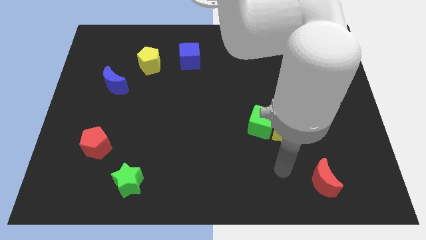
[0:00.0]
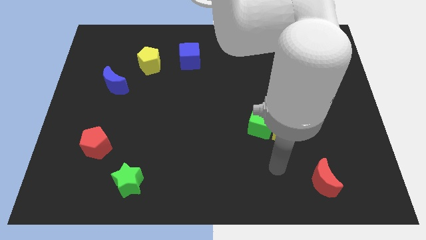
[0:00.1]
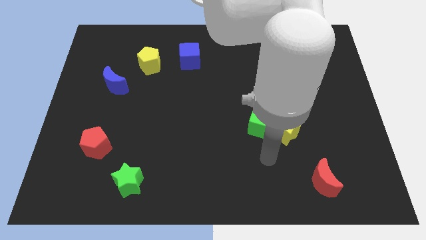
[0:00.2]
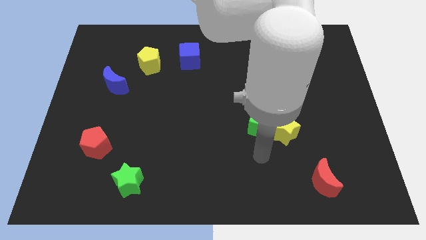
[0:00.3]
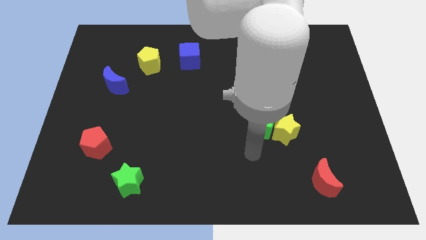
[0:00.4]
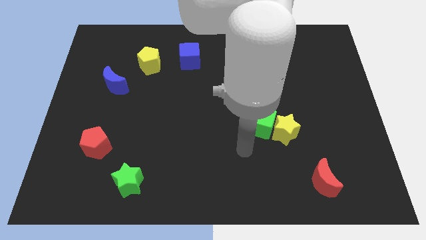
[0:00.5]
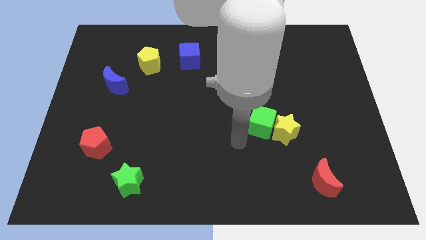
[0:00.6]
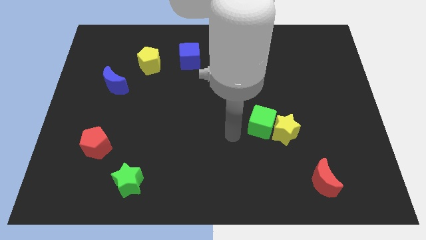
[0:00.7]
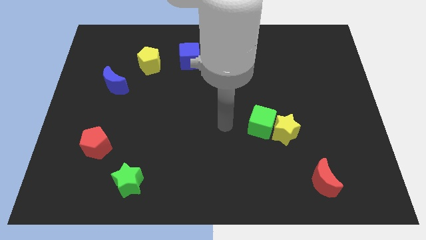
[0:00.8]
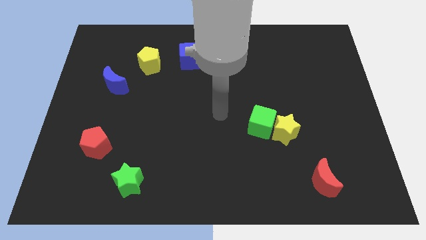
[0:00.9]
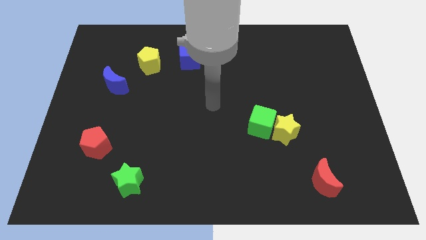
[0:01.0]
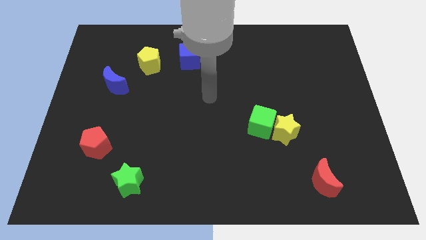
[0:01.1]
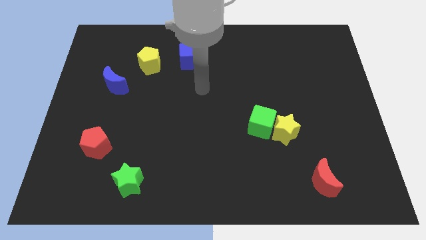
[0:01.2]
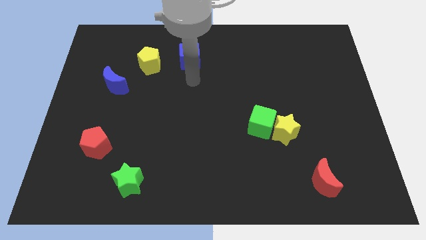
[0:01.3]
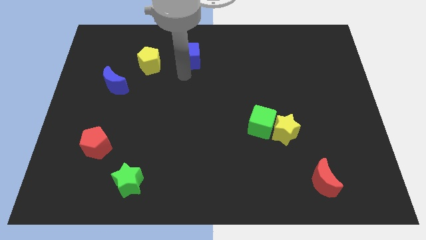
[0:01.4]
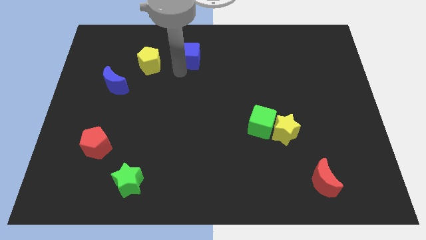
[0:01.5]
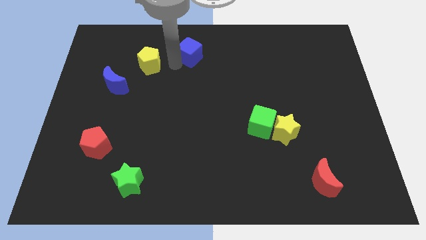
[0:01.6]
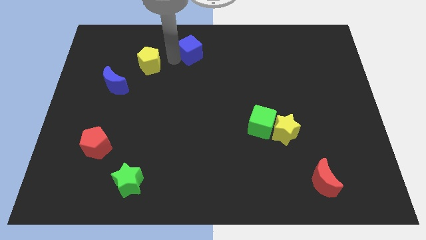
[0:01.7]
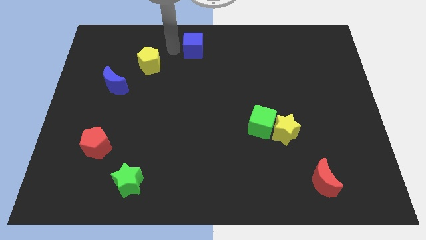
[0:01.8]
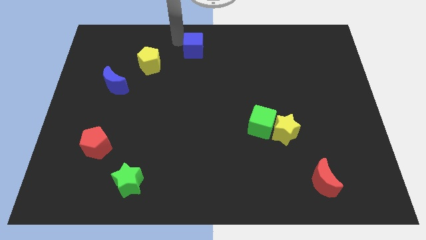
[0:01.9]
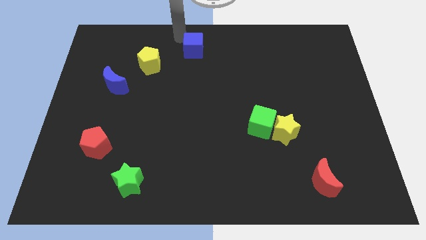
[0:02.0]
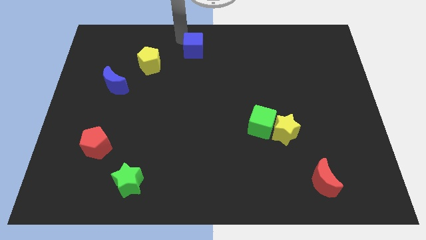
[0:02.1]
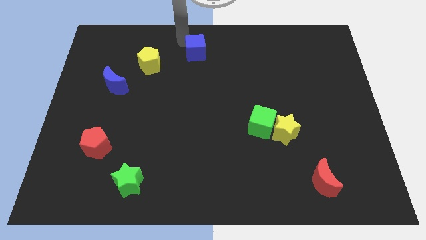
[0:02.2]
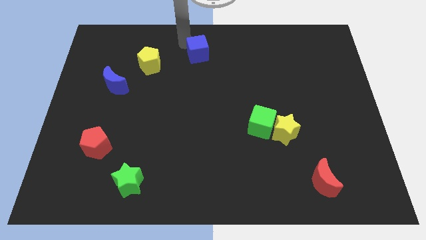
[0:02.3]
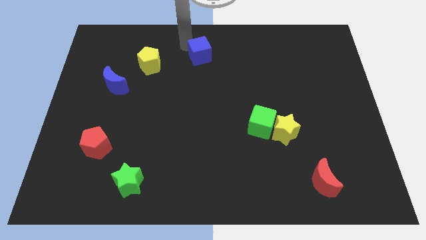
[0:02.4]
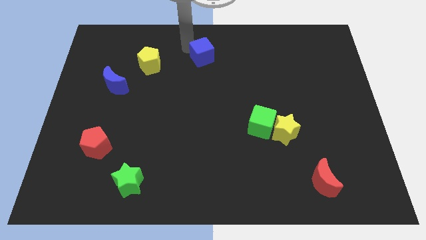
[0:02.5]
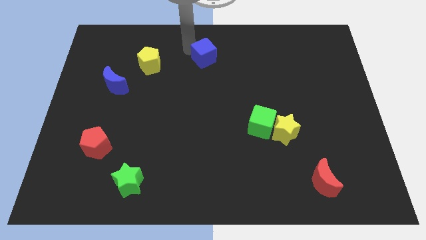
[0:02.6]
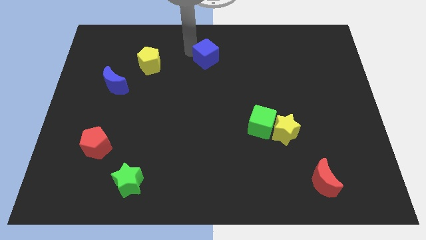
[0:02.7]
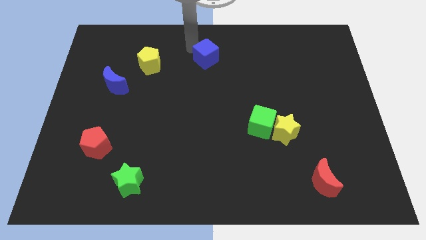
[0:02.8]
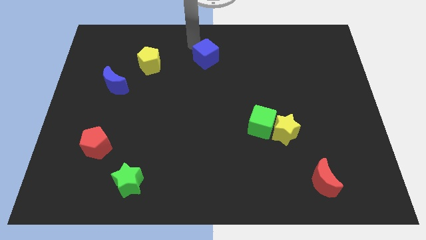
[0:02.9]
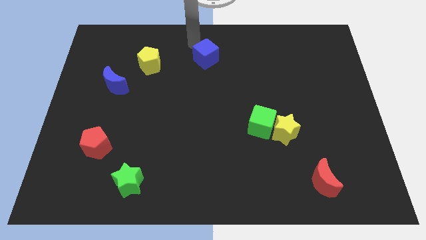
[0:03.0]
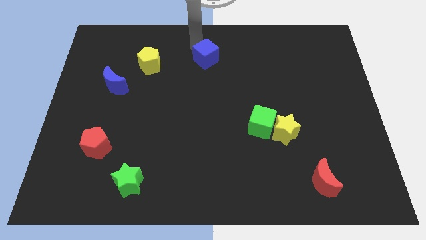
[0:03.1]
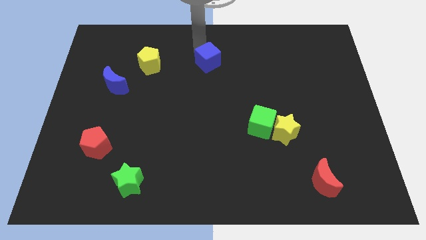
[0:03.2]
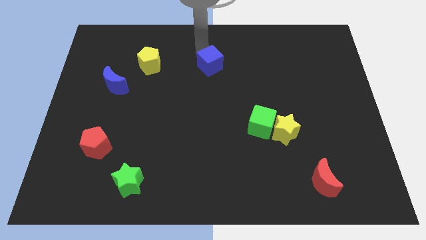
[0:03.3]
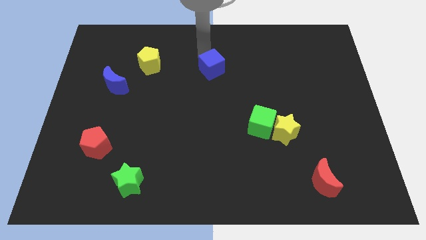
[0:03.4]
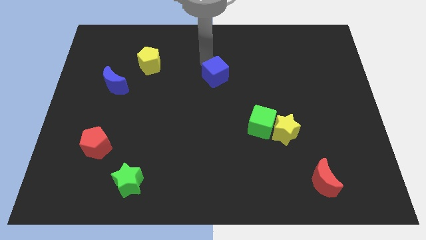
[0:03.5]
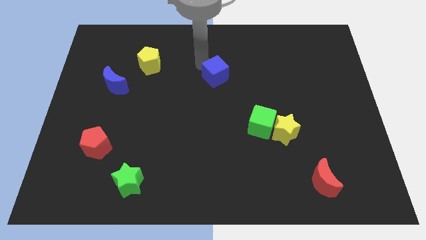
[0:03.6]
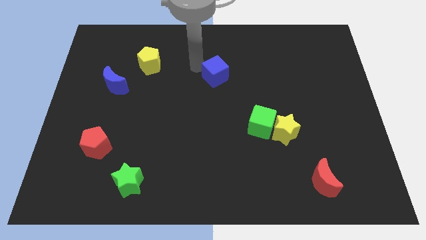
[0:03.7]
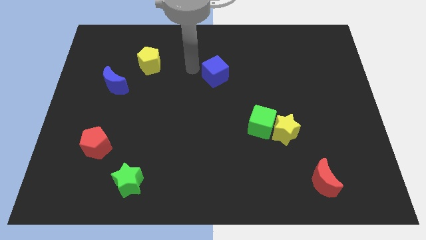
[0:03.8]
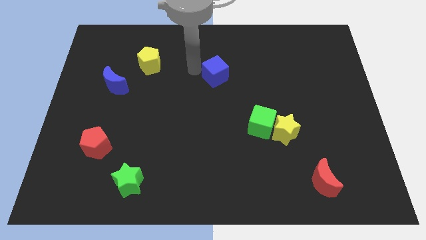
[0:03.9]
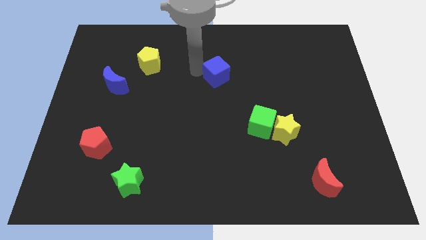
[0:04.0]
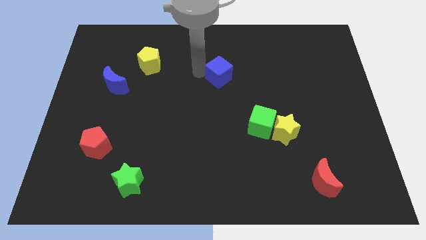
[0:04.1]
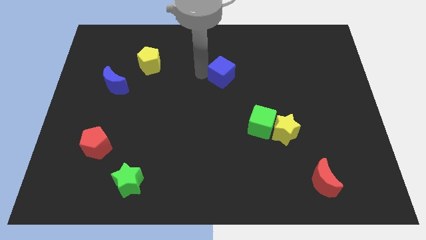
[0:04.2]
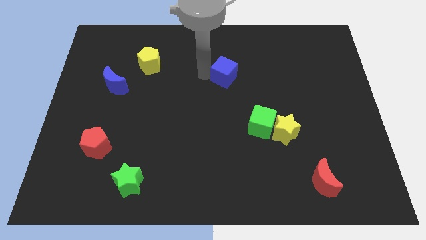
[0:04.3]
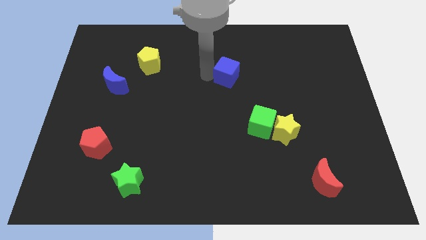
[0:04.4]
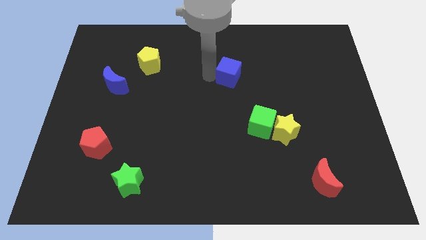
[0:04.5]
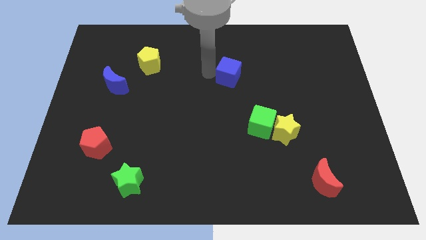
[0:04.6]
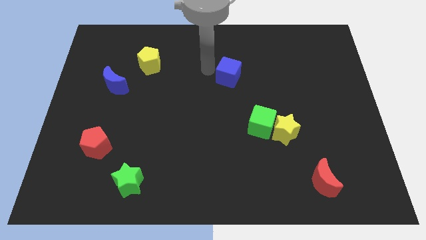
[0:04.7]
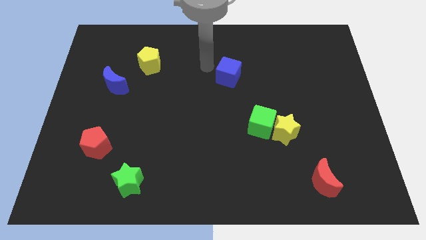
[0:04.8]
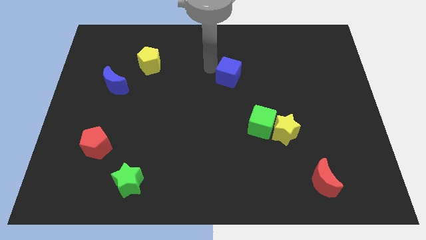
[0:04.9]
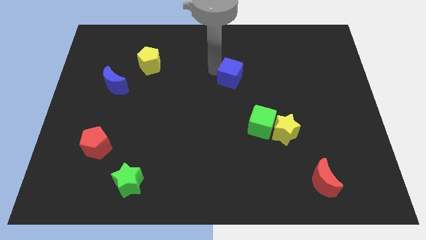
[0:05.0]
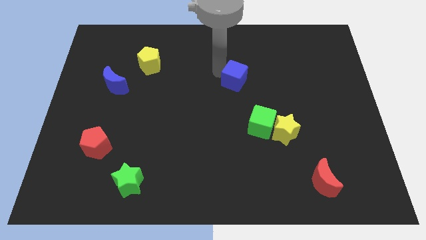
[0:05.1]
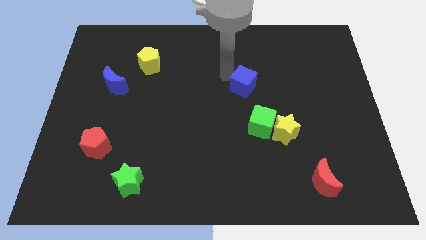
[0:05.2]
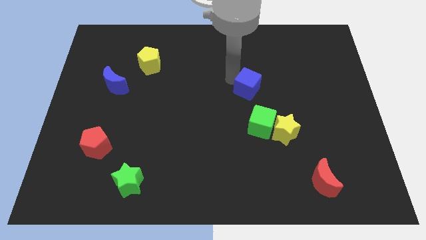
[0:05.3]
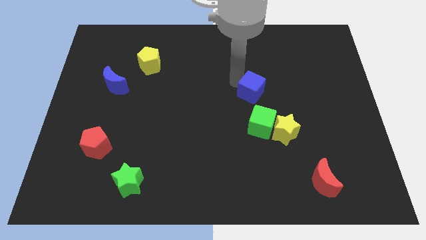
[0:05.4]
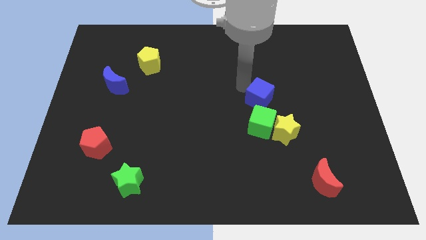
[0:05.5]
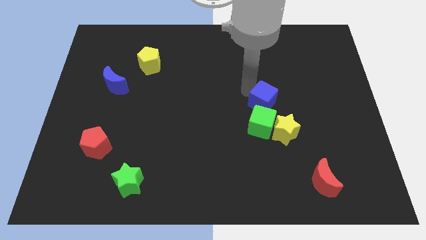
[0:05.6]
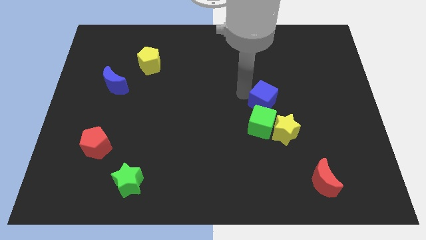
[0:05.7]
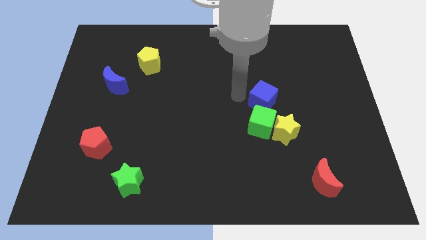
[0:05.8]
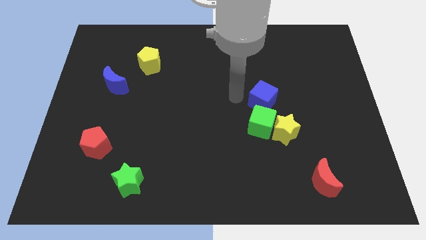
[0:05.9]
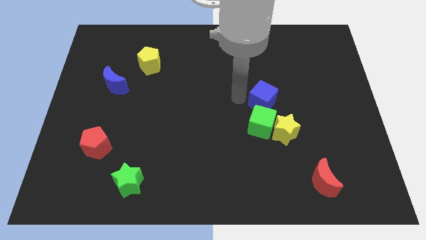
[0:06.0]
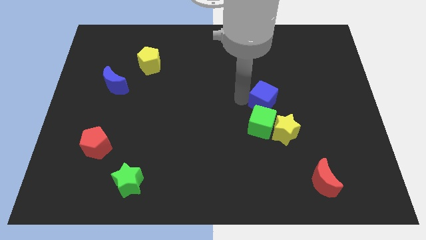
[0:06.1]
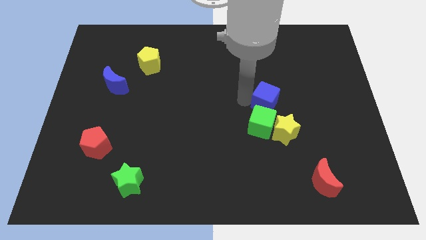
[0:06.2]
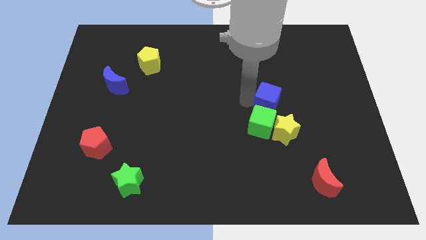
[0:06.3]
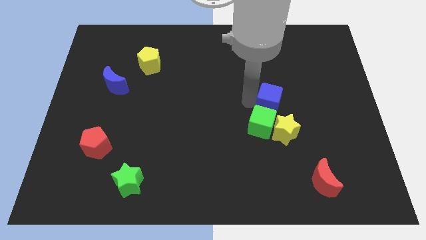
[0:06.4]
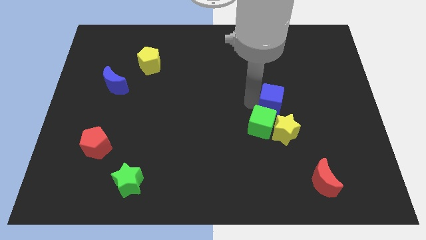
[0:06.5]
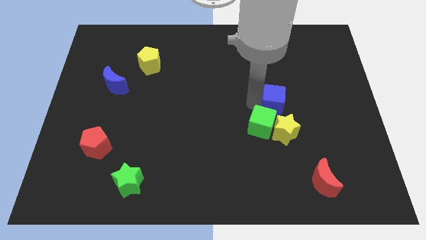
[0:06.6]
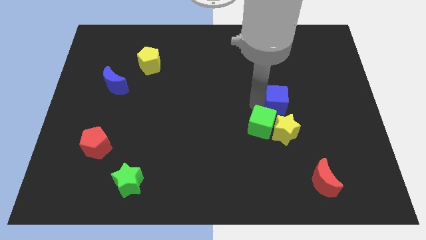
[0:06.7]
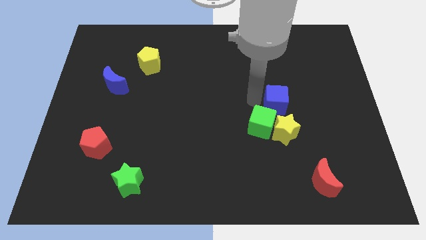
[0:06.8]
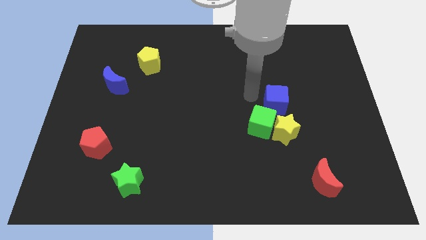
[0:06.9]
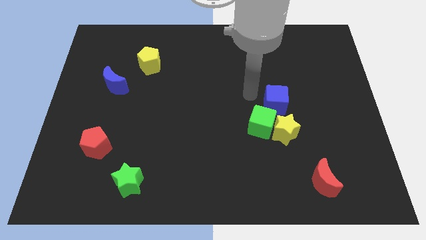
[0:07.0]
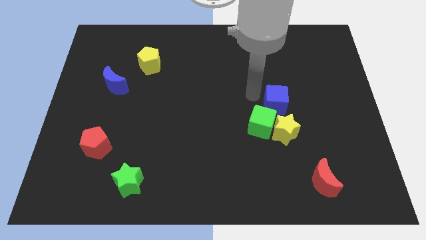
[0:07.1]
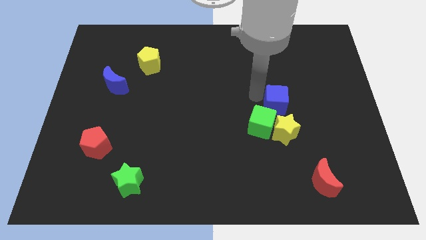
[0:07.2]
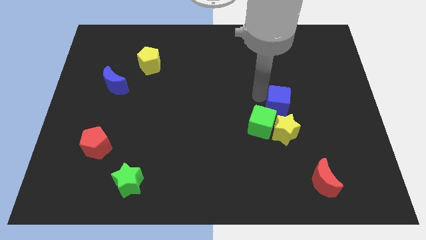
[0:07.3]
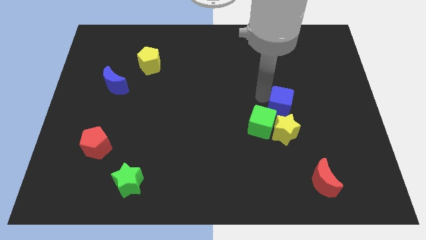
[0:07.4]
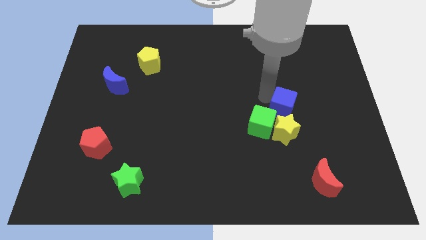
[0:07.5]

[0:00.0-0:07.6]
put the blue cube diagonally up and to the right of the yellow star

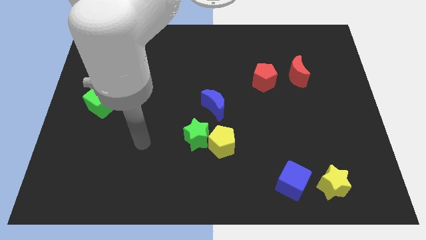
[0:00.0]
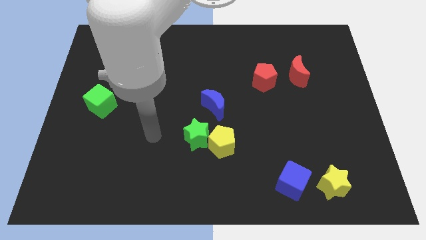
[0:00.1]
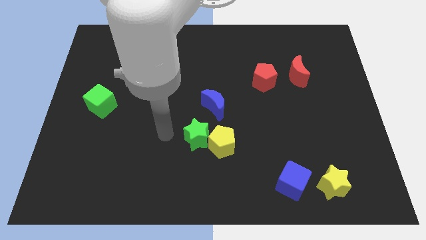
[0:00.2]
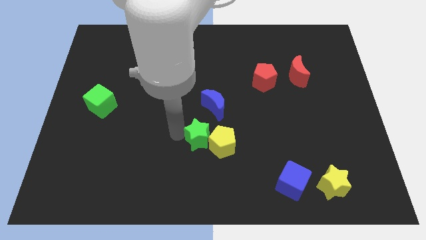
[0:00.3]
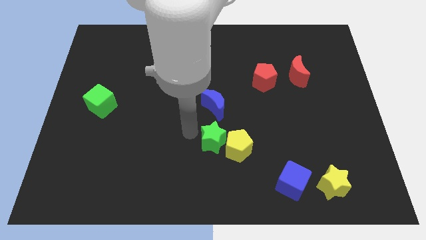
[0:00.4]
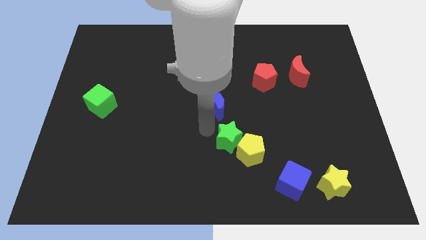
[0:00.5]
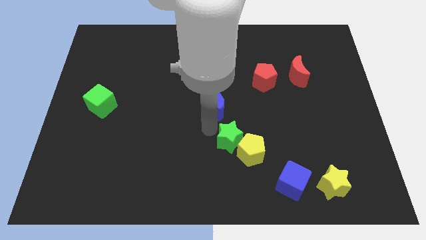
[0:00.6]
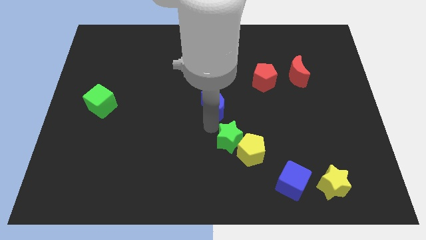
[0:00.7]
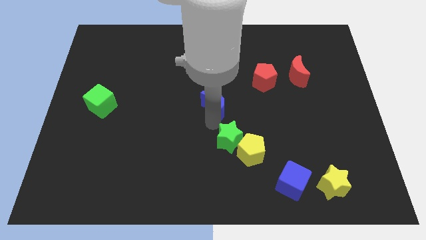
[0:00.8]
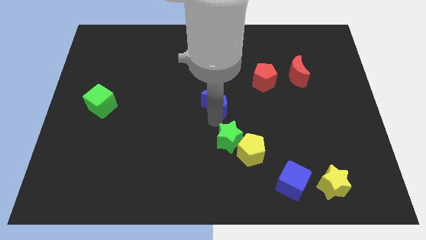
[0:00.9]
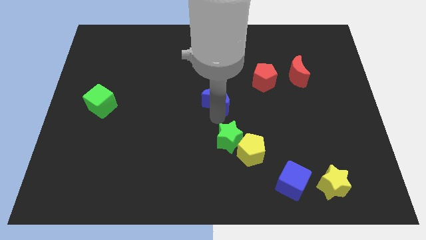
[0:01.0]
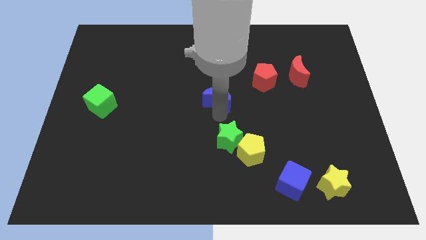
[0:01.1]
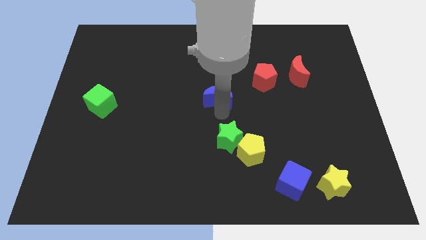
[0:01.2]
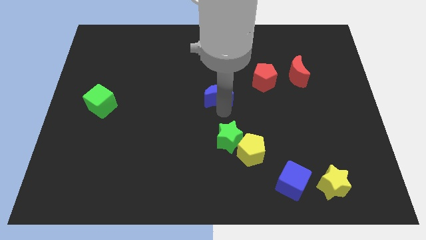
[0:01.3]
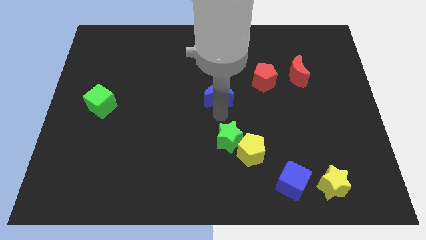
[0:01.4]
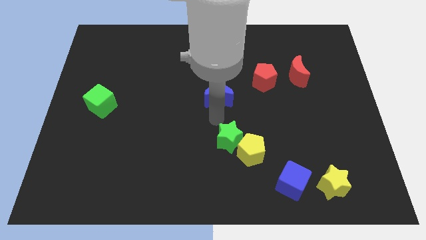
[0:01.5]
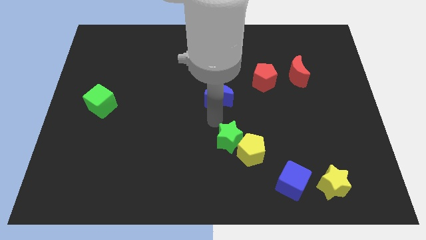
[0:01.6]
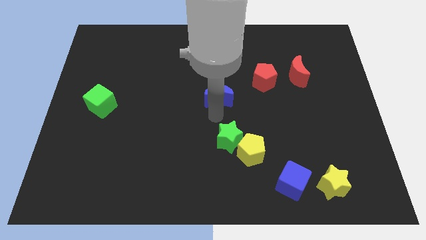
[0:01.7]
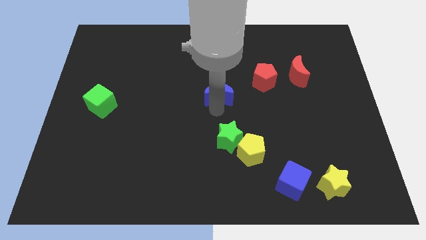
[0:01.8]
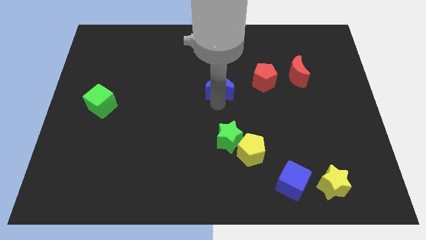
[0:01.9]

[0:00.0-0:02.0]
put the blue moon left of the red pentagon
